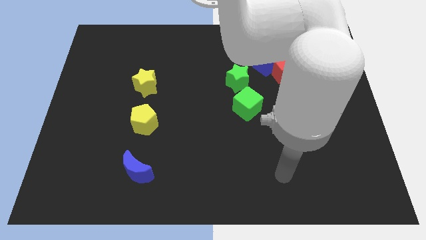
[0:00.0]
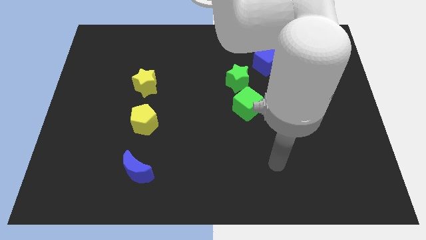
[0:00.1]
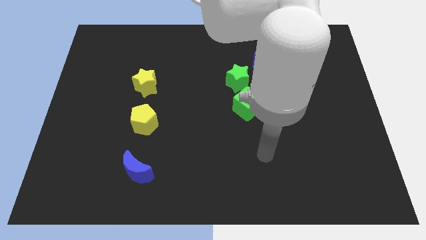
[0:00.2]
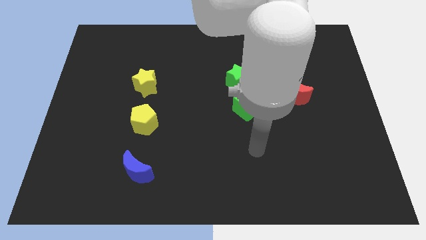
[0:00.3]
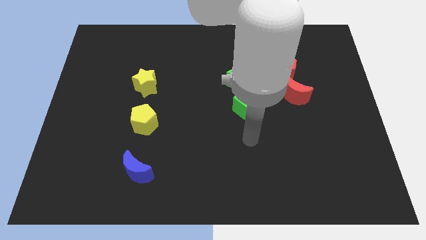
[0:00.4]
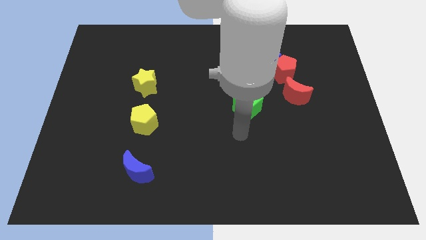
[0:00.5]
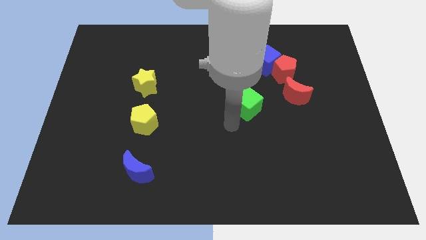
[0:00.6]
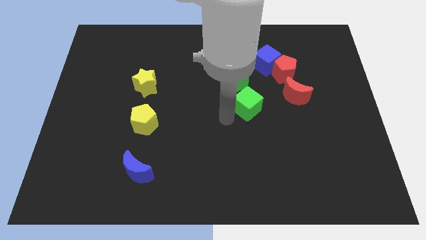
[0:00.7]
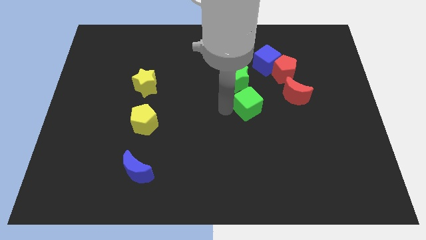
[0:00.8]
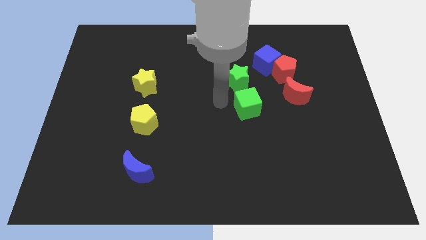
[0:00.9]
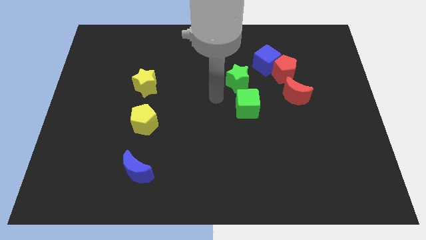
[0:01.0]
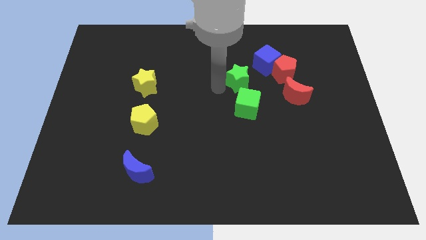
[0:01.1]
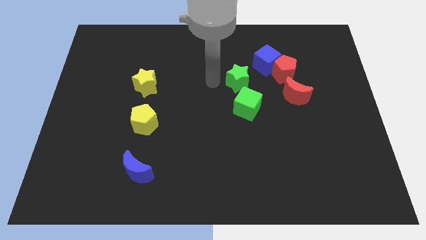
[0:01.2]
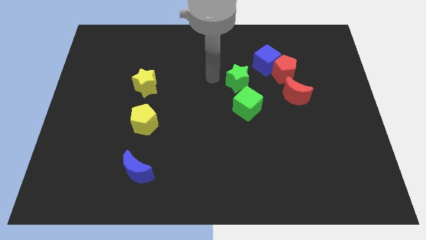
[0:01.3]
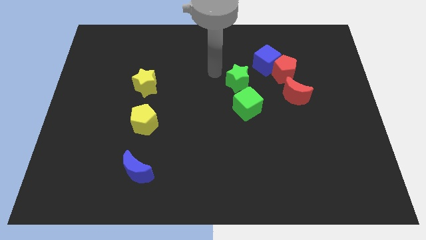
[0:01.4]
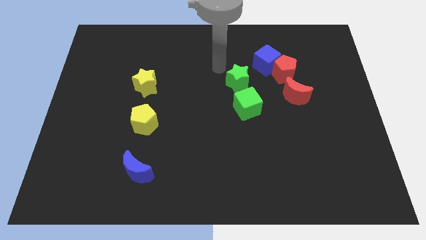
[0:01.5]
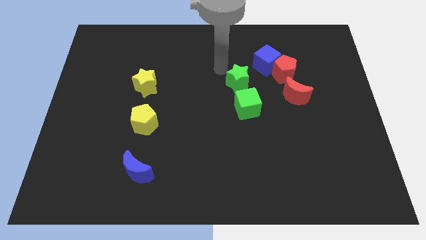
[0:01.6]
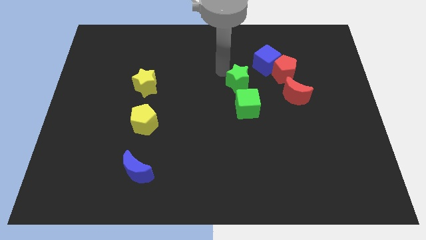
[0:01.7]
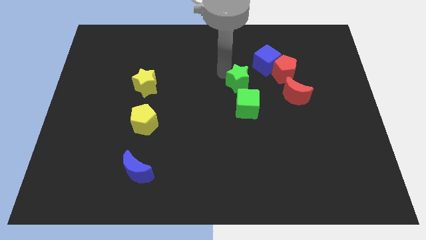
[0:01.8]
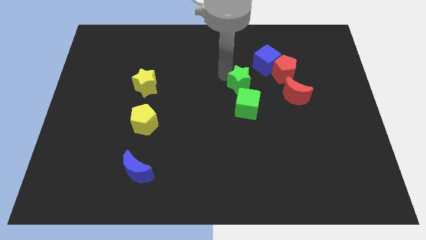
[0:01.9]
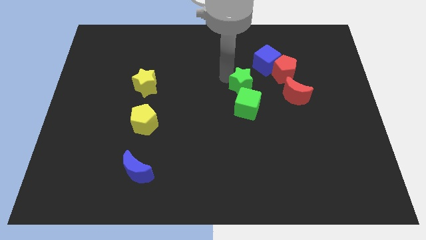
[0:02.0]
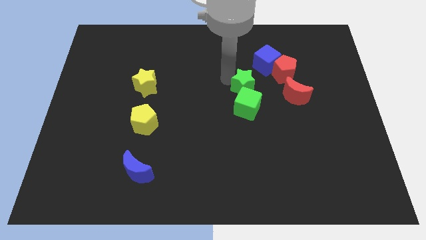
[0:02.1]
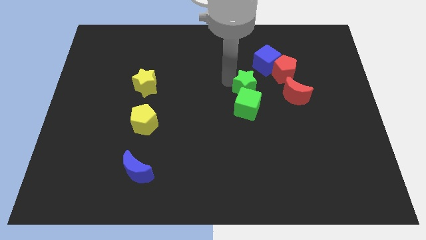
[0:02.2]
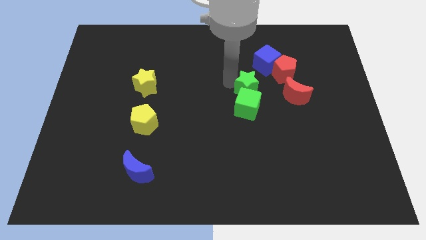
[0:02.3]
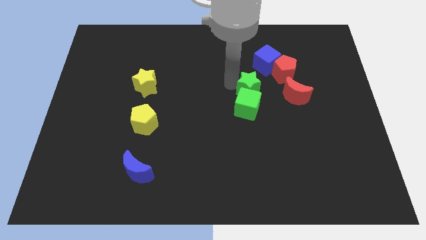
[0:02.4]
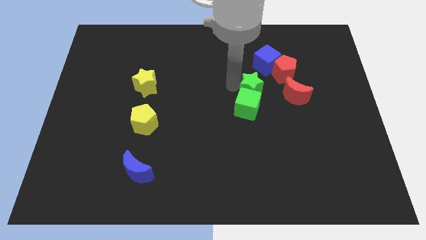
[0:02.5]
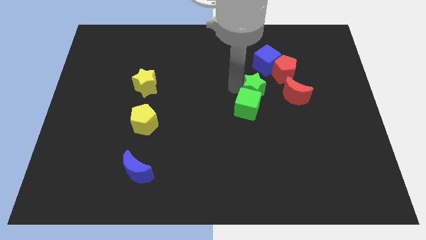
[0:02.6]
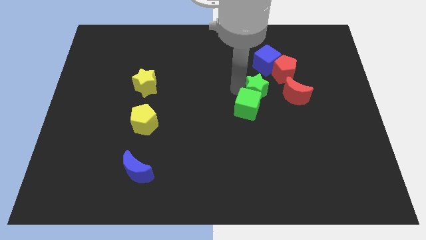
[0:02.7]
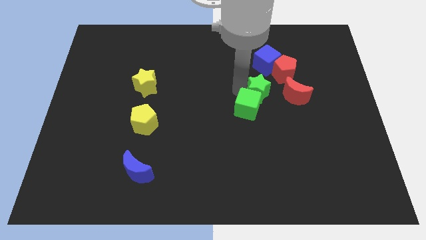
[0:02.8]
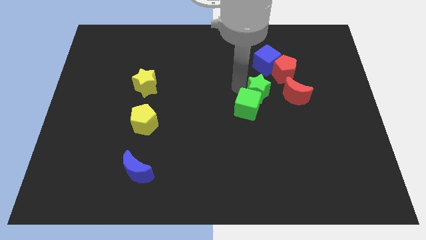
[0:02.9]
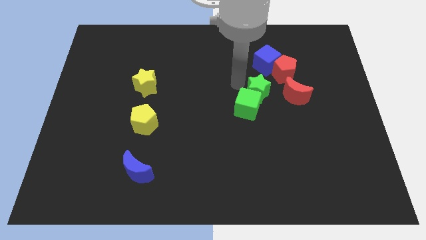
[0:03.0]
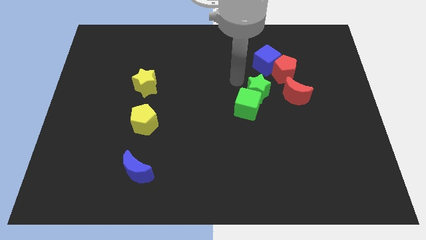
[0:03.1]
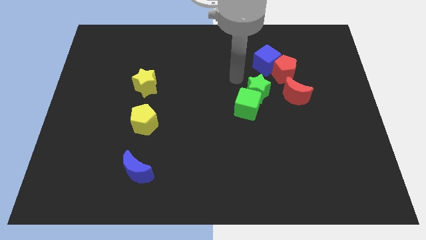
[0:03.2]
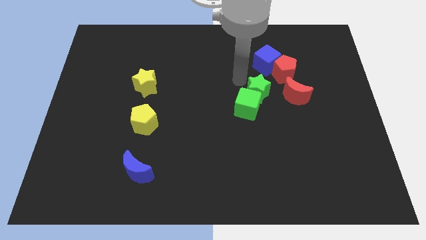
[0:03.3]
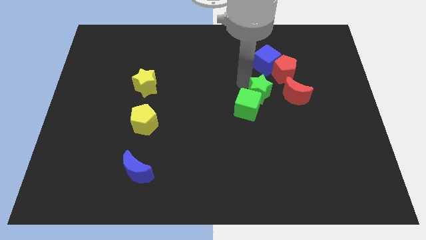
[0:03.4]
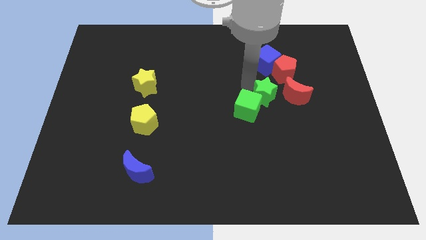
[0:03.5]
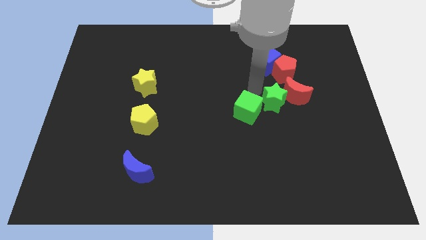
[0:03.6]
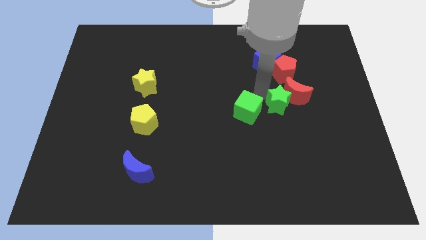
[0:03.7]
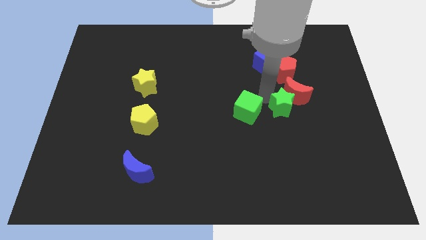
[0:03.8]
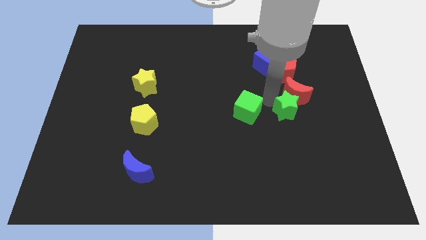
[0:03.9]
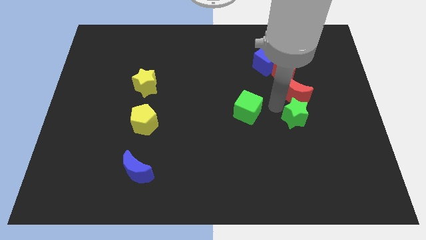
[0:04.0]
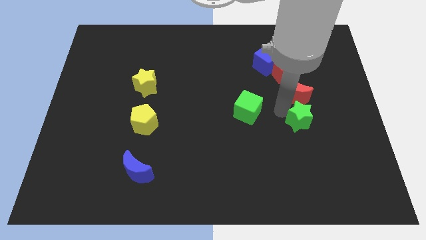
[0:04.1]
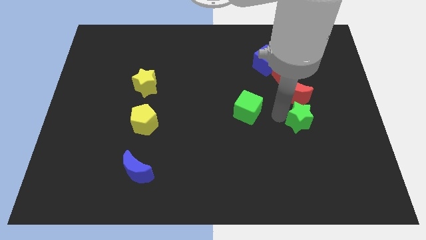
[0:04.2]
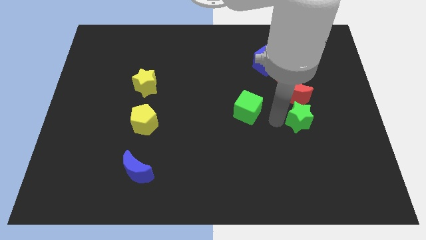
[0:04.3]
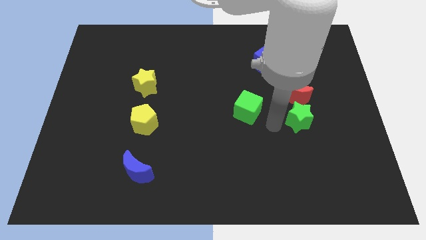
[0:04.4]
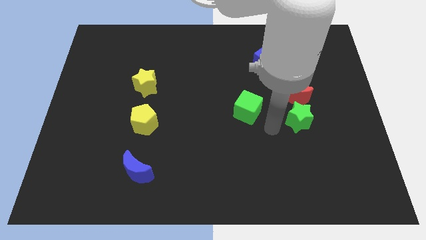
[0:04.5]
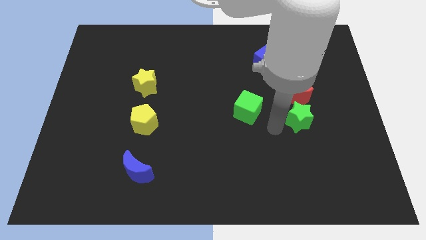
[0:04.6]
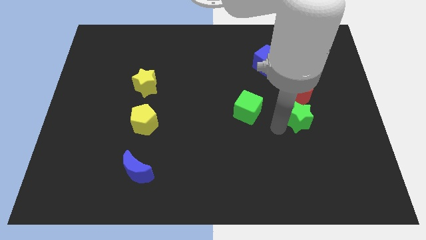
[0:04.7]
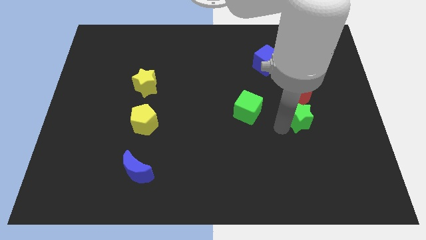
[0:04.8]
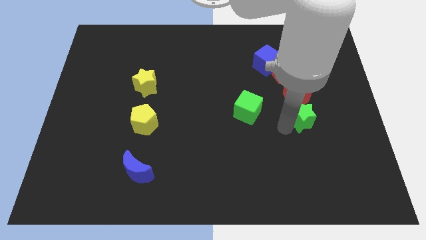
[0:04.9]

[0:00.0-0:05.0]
slide the green star to the bottom right of the red moon

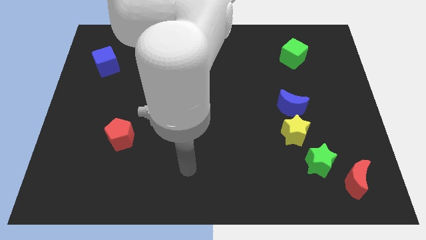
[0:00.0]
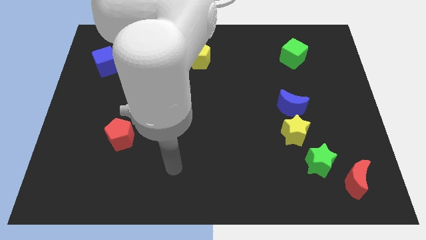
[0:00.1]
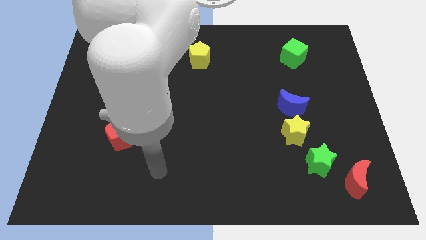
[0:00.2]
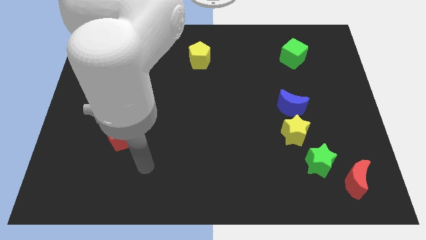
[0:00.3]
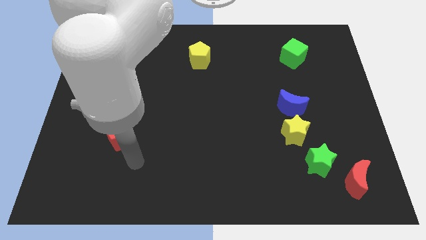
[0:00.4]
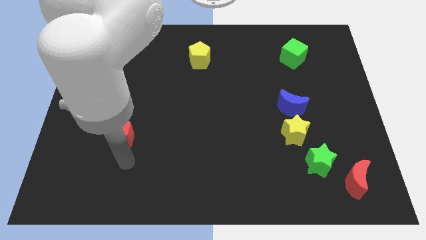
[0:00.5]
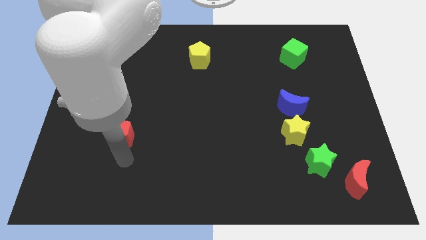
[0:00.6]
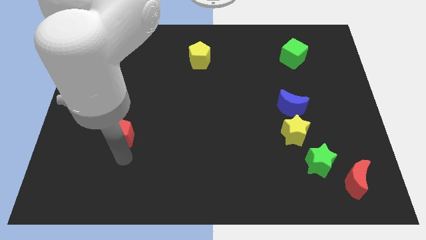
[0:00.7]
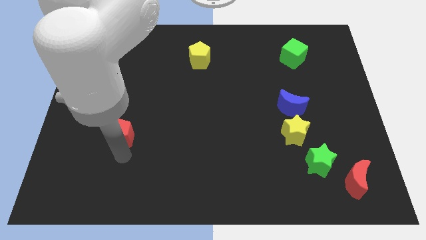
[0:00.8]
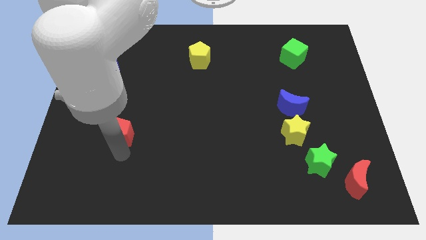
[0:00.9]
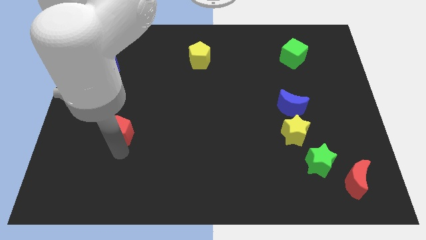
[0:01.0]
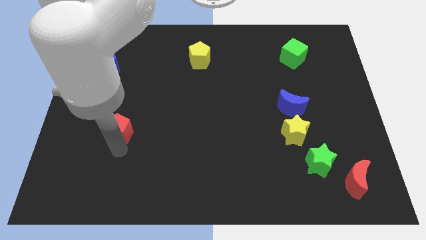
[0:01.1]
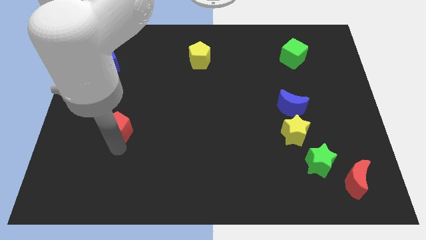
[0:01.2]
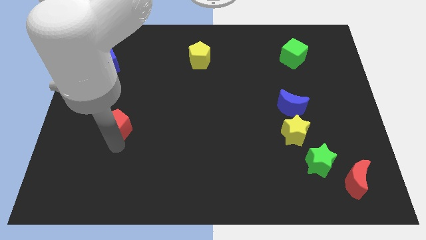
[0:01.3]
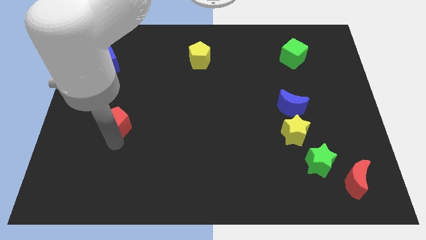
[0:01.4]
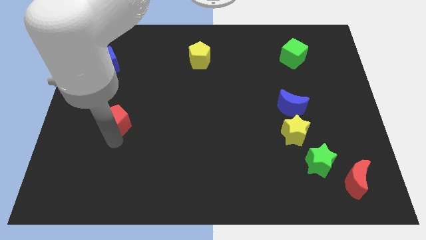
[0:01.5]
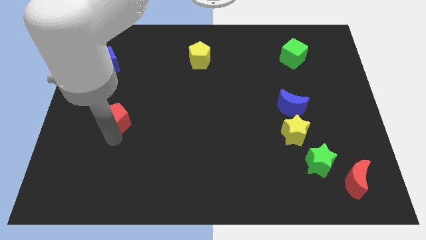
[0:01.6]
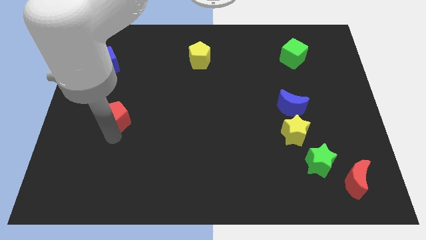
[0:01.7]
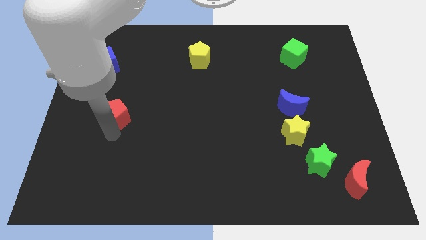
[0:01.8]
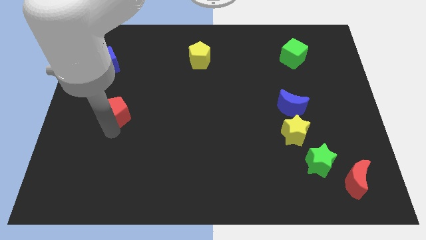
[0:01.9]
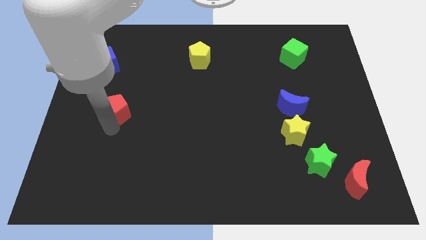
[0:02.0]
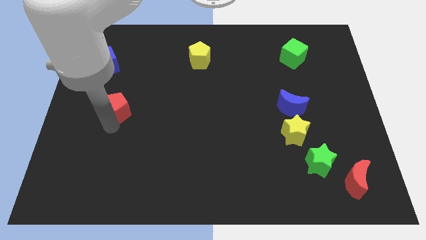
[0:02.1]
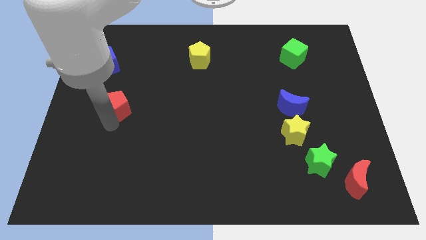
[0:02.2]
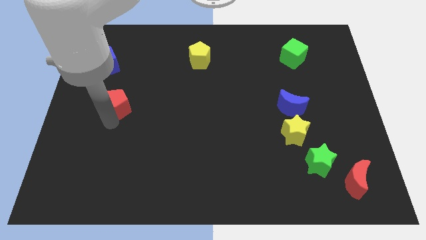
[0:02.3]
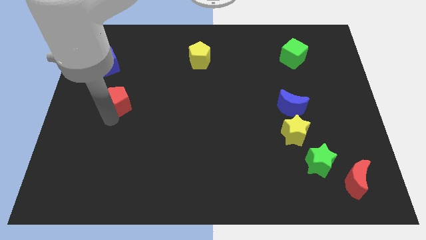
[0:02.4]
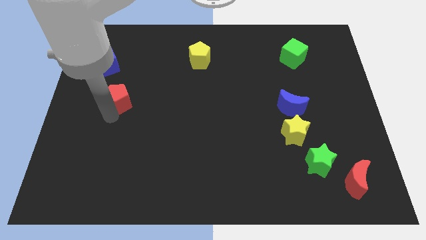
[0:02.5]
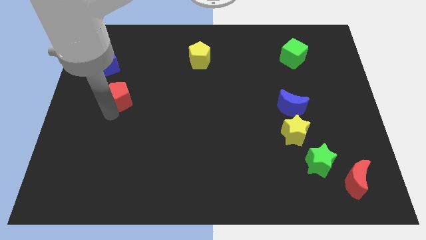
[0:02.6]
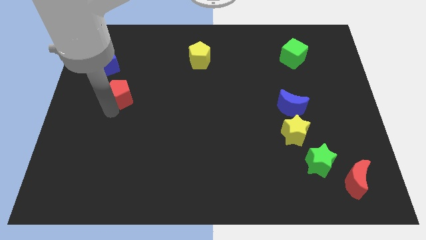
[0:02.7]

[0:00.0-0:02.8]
slide the red pentagon diagonally down and to the right of the blue cube
